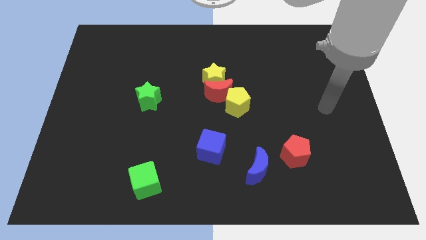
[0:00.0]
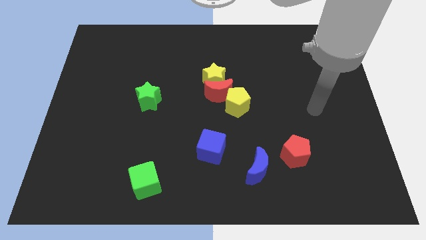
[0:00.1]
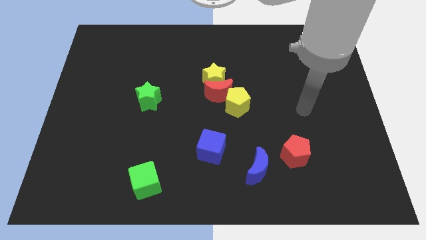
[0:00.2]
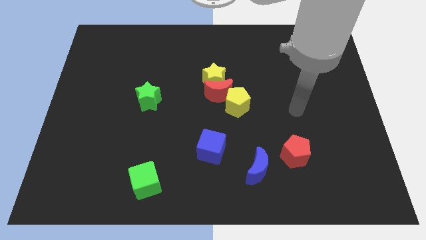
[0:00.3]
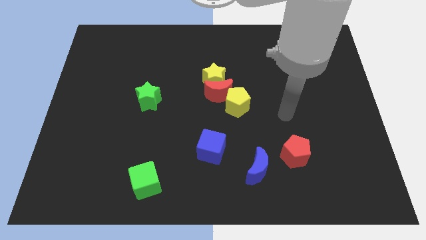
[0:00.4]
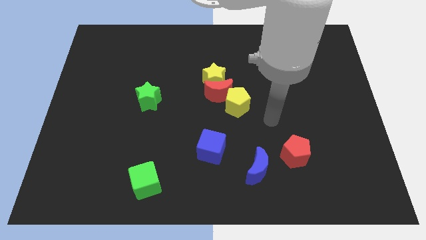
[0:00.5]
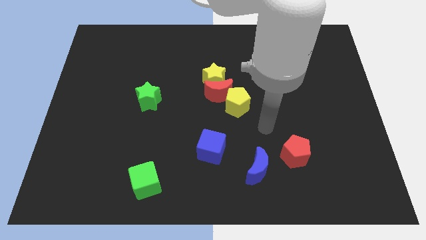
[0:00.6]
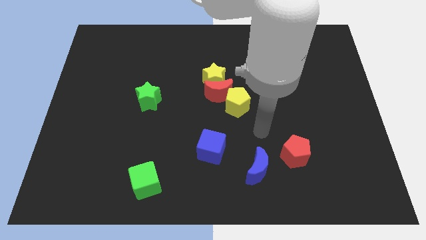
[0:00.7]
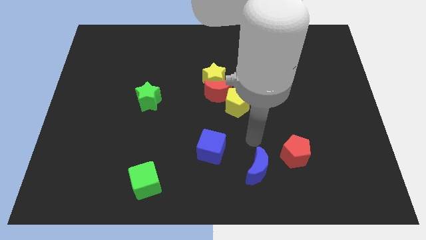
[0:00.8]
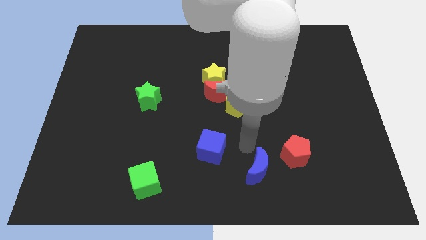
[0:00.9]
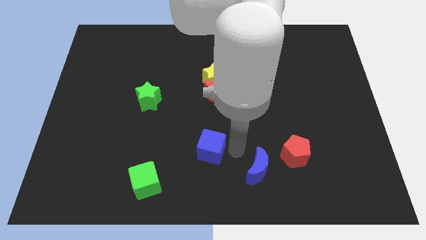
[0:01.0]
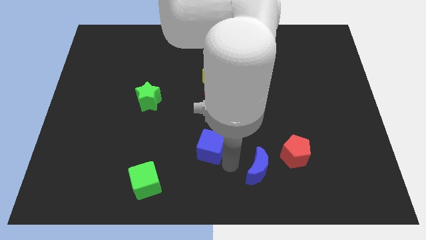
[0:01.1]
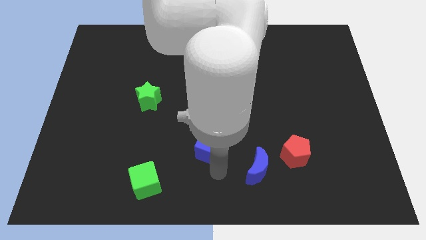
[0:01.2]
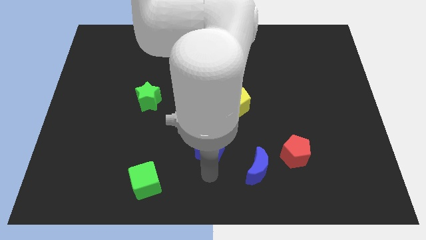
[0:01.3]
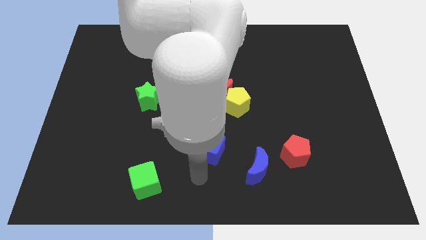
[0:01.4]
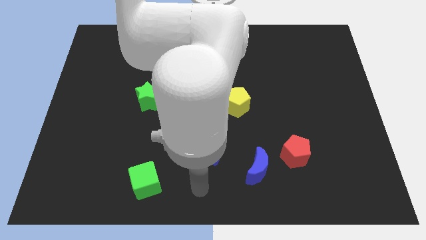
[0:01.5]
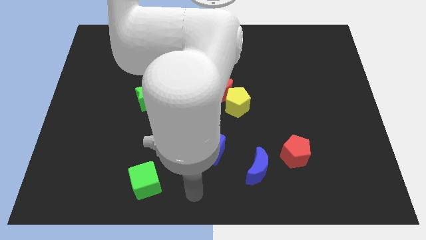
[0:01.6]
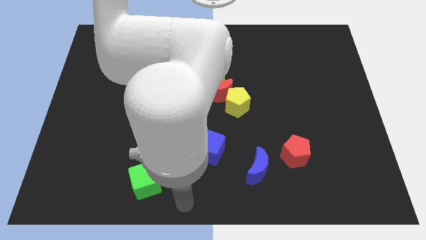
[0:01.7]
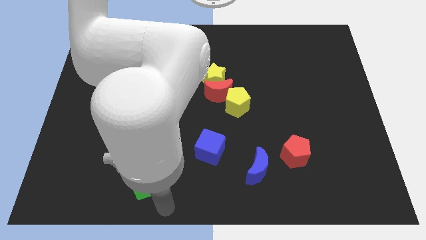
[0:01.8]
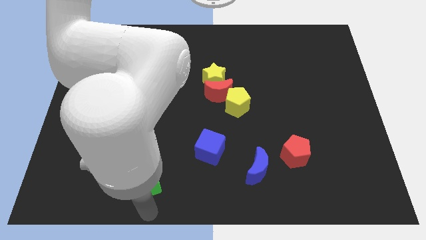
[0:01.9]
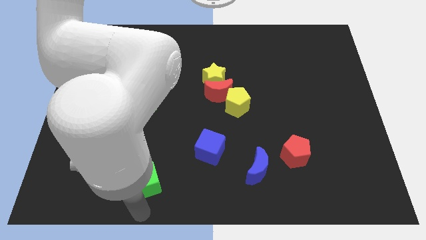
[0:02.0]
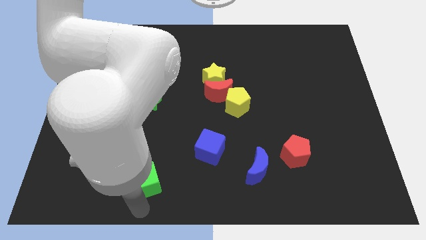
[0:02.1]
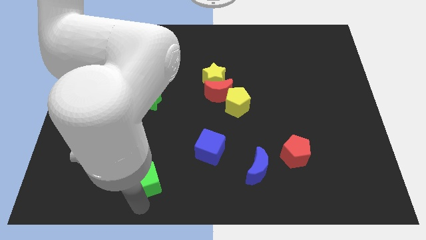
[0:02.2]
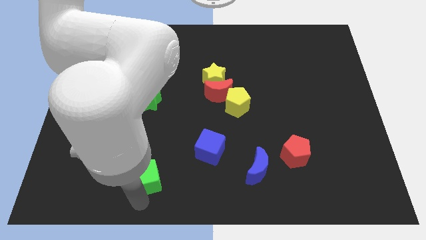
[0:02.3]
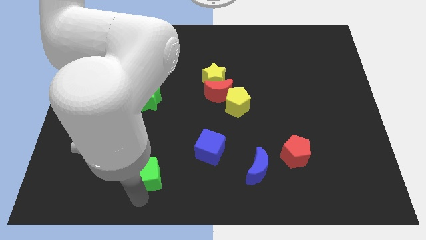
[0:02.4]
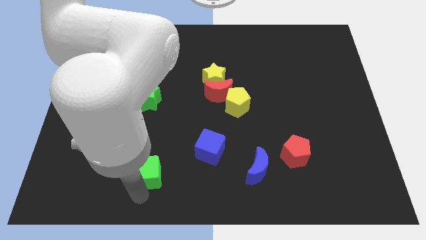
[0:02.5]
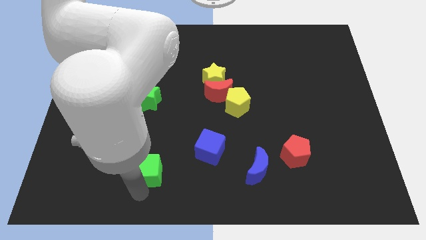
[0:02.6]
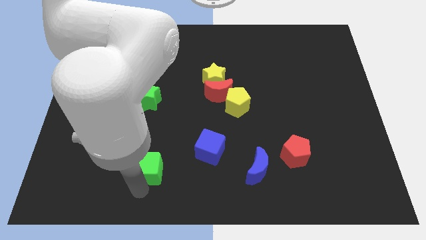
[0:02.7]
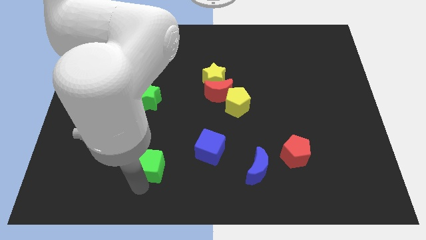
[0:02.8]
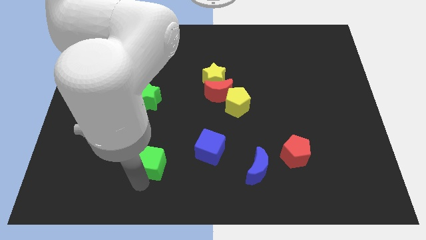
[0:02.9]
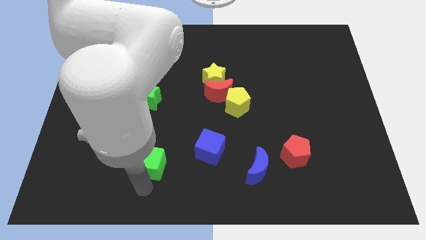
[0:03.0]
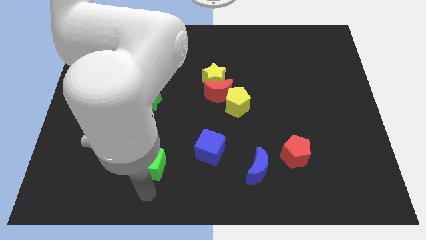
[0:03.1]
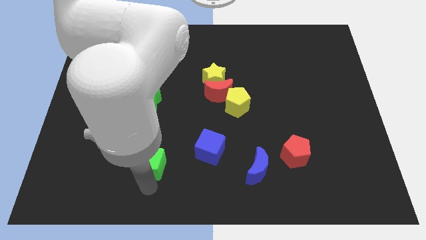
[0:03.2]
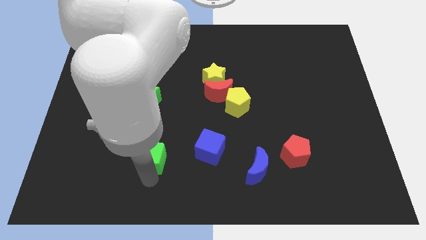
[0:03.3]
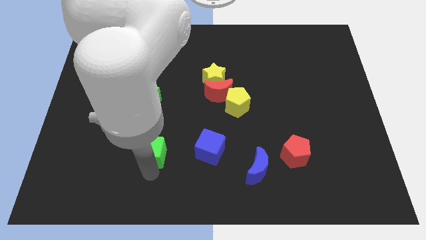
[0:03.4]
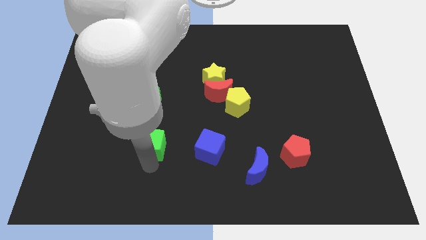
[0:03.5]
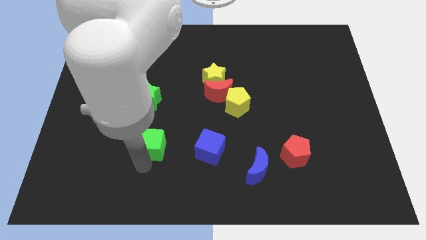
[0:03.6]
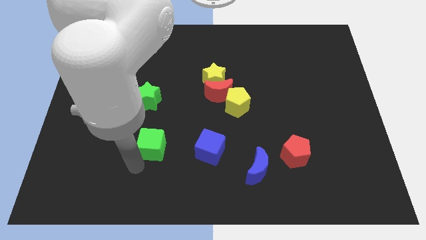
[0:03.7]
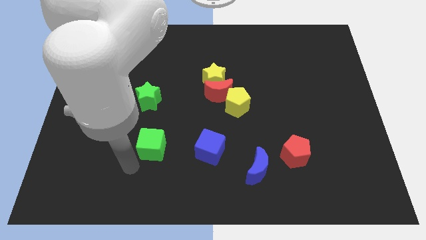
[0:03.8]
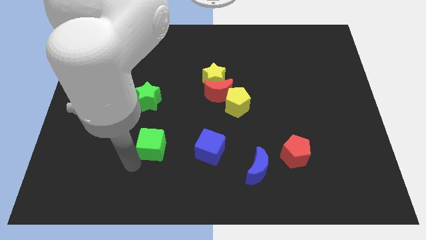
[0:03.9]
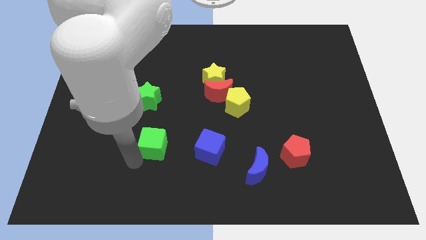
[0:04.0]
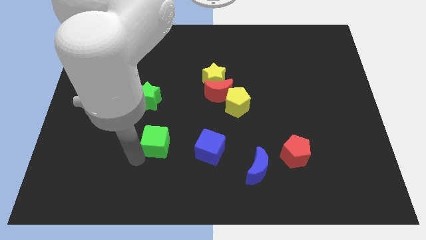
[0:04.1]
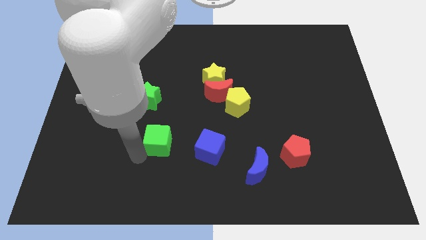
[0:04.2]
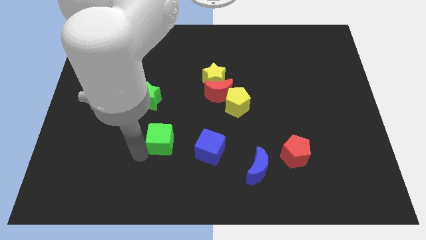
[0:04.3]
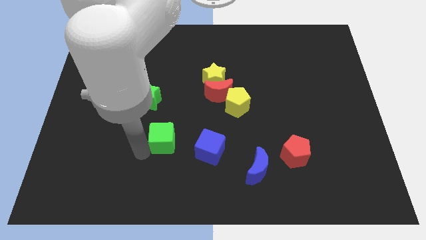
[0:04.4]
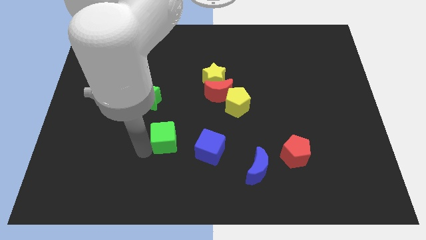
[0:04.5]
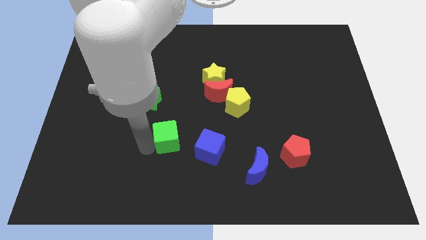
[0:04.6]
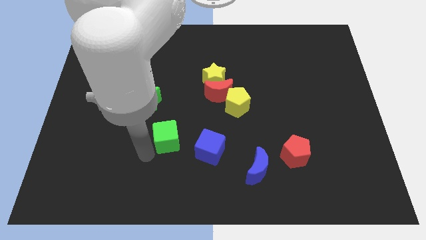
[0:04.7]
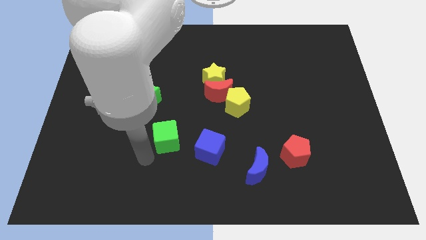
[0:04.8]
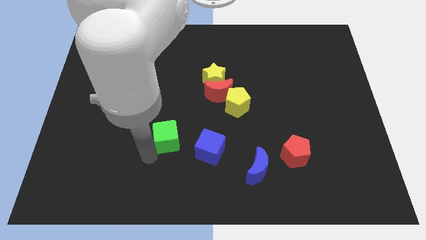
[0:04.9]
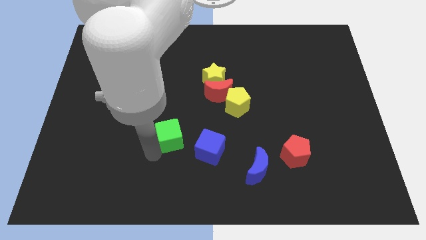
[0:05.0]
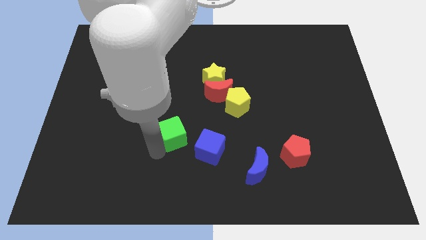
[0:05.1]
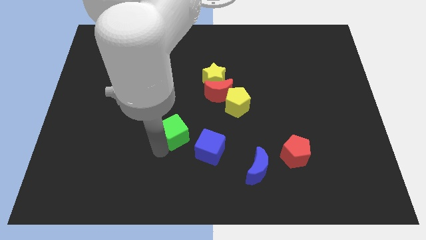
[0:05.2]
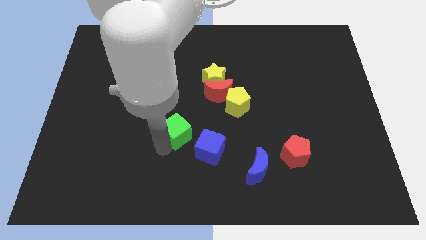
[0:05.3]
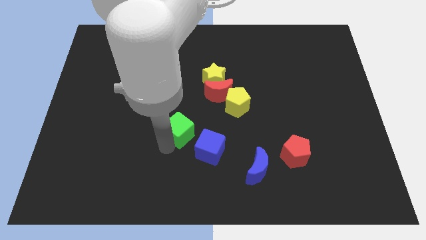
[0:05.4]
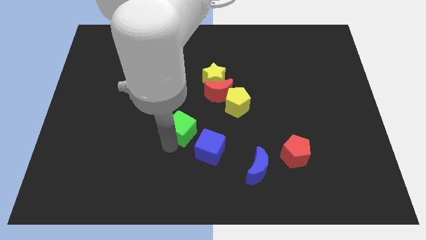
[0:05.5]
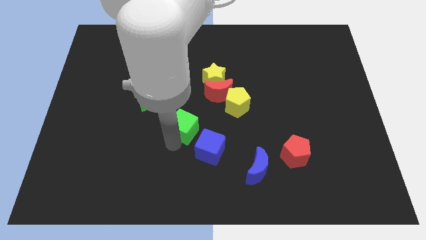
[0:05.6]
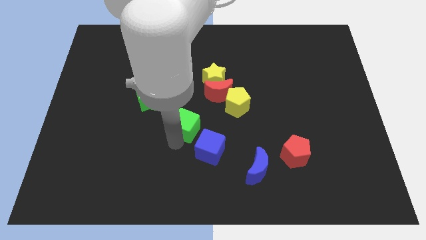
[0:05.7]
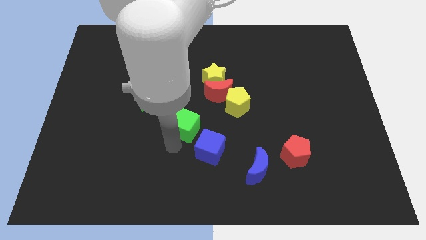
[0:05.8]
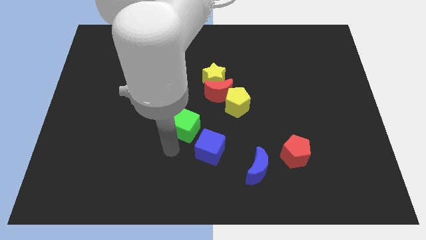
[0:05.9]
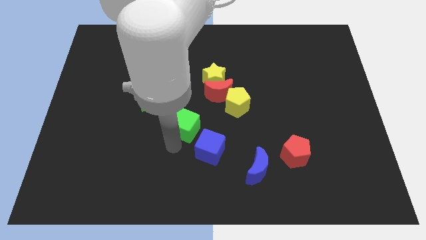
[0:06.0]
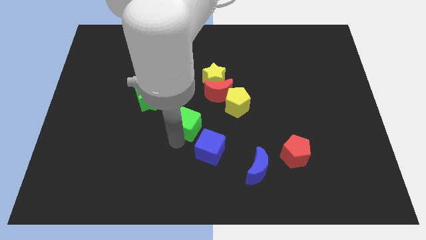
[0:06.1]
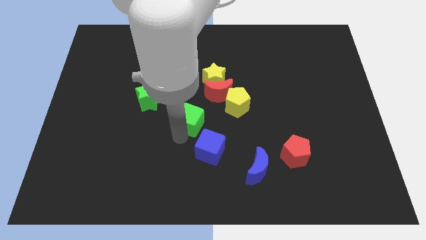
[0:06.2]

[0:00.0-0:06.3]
slide the green cube to the bottom left side of the yellow pentagon

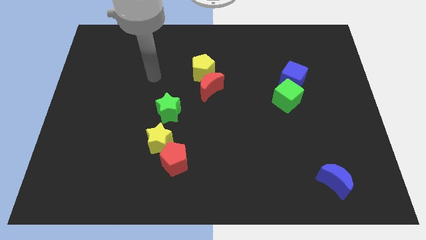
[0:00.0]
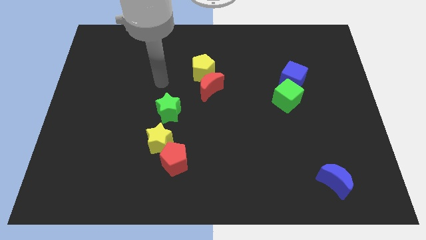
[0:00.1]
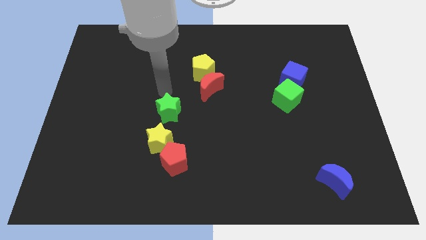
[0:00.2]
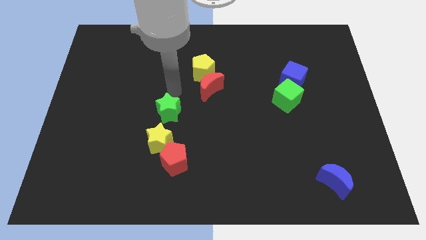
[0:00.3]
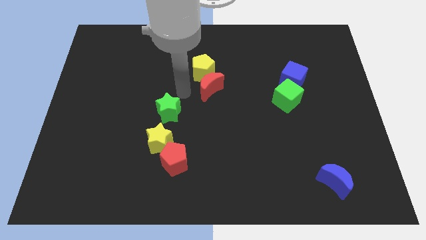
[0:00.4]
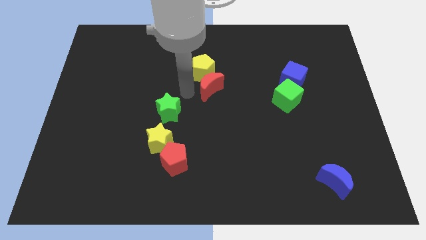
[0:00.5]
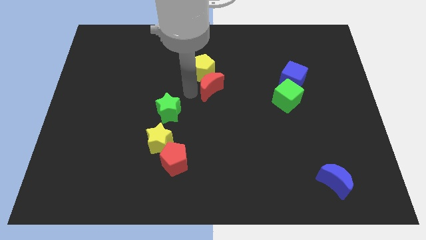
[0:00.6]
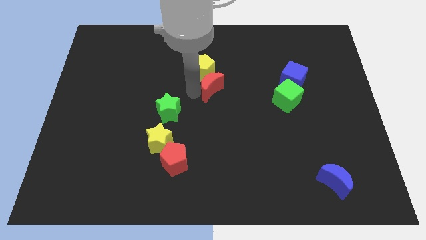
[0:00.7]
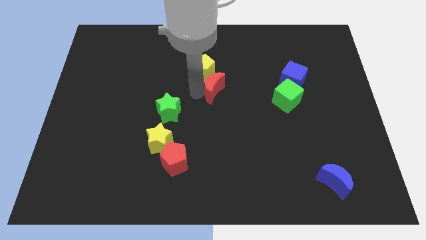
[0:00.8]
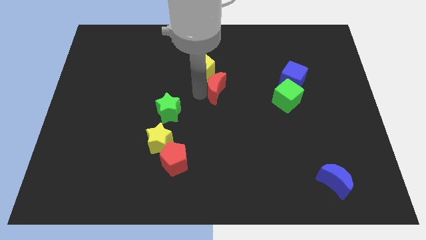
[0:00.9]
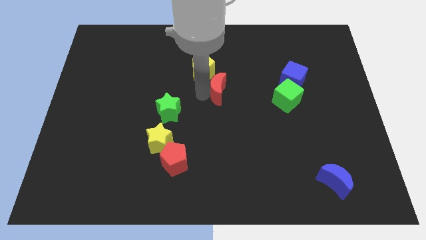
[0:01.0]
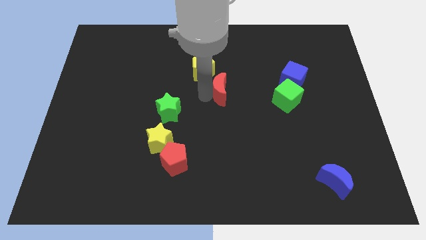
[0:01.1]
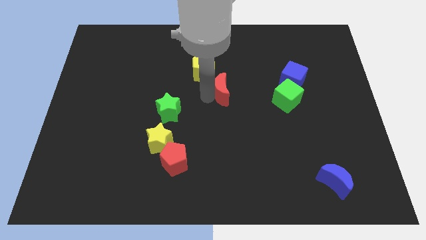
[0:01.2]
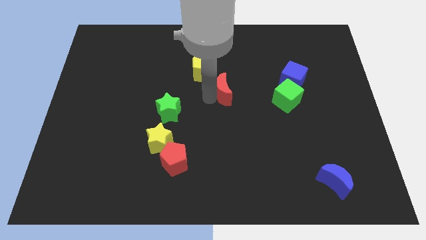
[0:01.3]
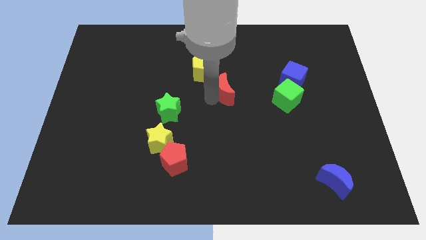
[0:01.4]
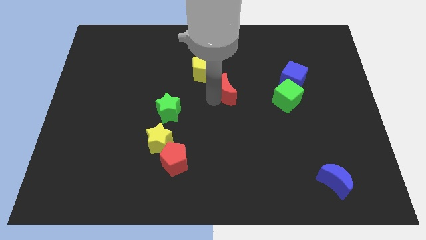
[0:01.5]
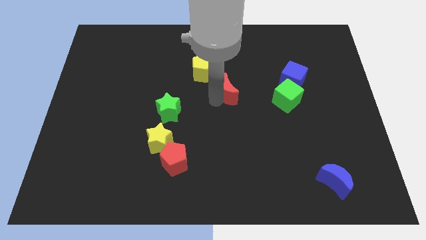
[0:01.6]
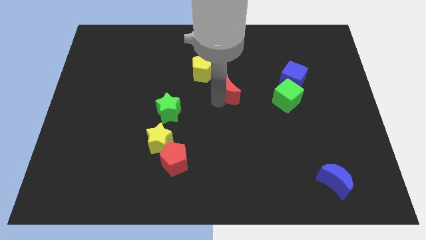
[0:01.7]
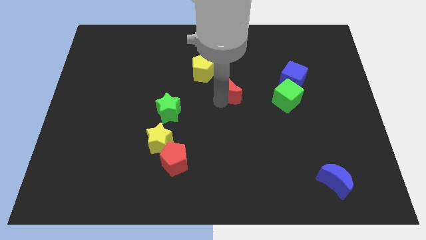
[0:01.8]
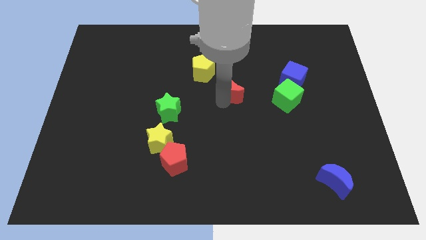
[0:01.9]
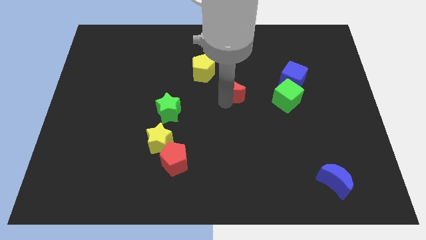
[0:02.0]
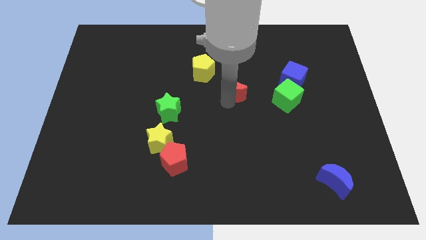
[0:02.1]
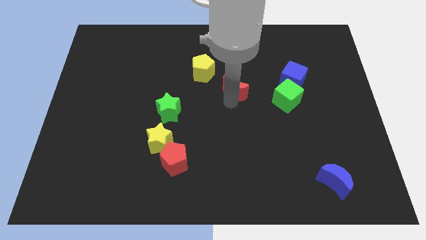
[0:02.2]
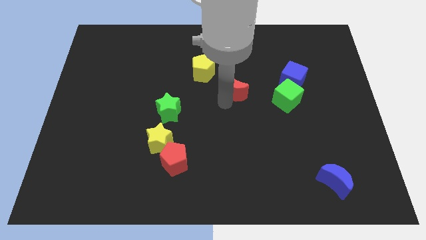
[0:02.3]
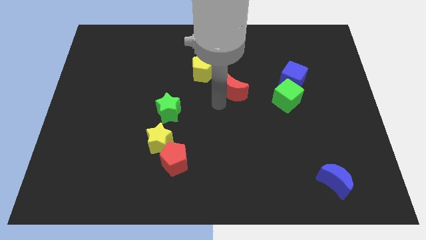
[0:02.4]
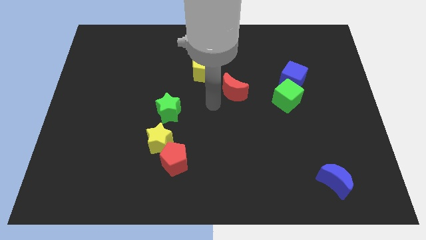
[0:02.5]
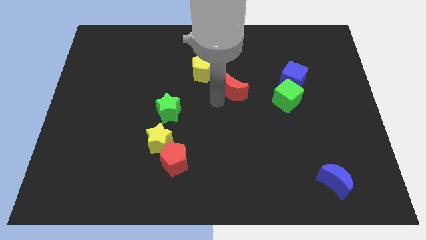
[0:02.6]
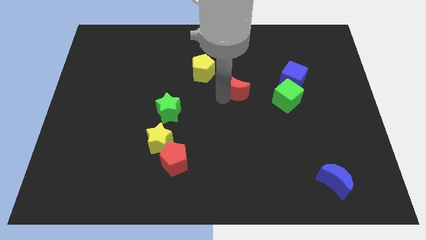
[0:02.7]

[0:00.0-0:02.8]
move the red moon left of the blue cube
